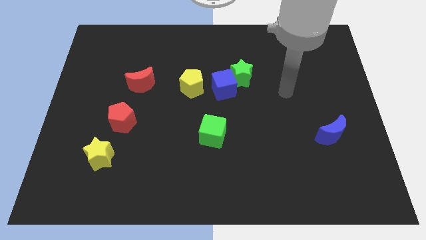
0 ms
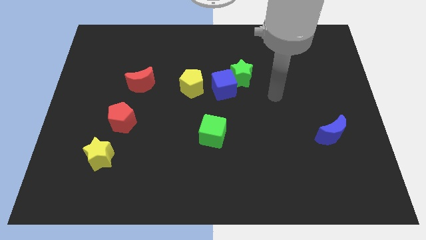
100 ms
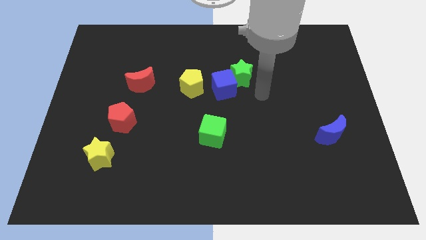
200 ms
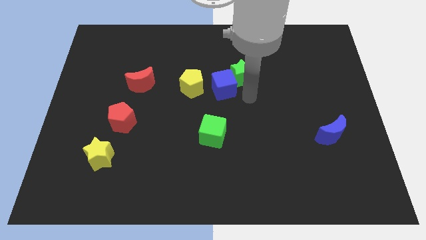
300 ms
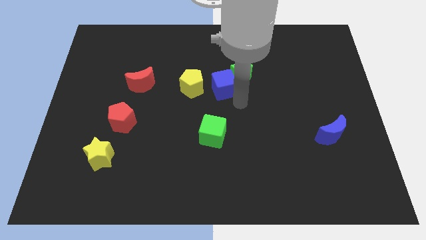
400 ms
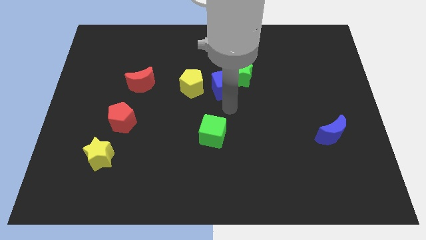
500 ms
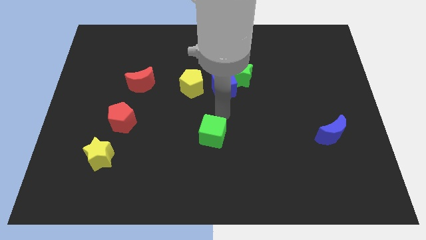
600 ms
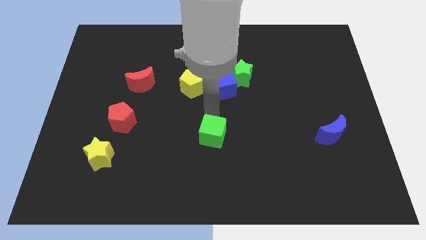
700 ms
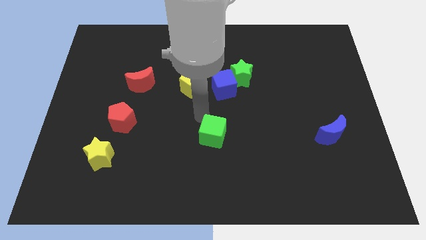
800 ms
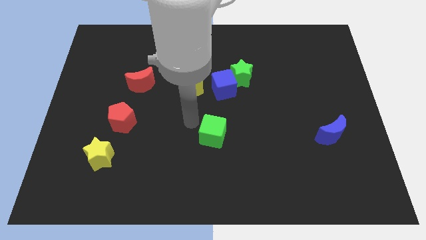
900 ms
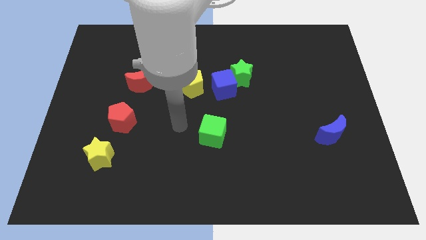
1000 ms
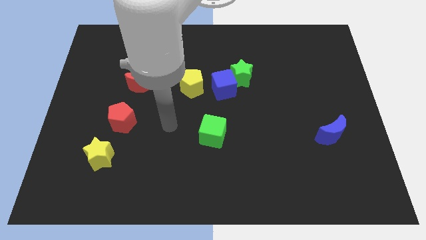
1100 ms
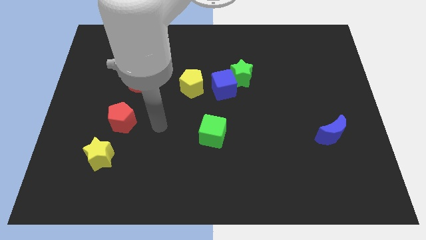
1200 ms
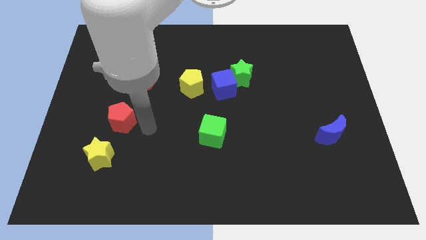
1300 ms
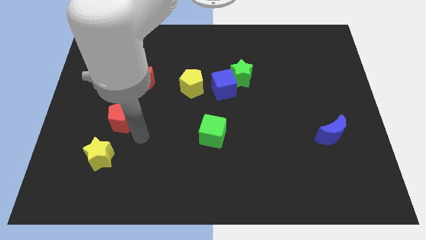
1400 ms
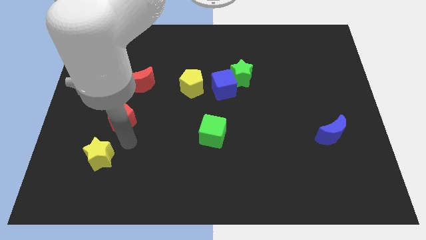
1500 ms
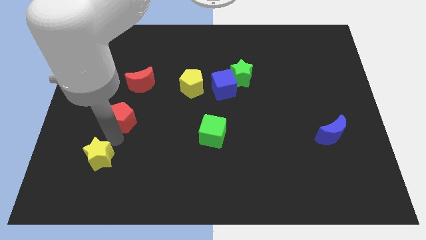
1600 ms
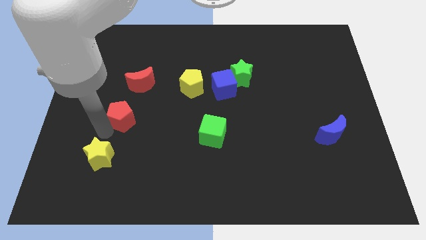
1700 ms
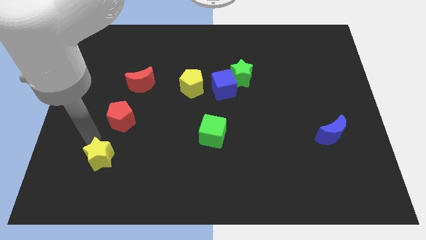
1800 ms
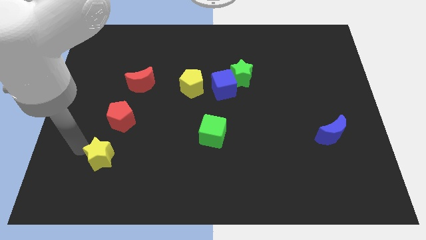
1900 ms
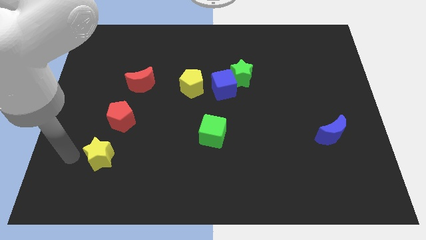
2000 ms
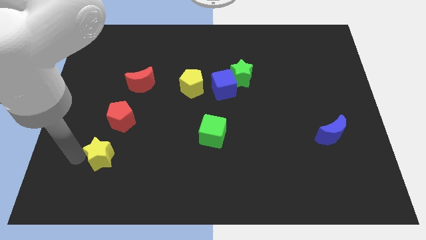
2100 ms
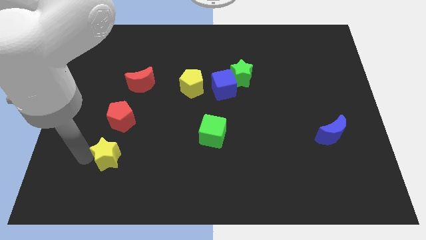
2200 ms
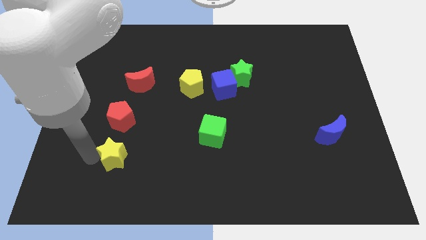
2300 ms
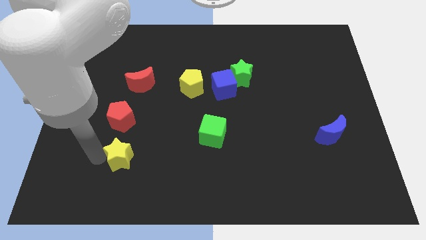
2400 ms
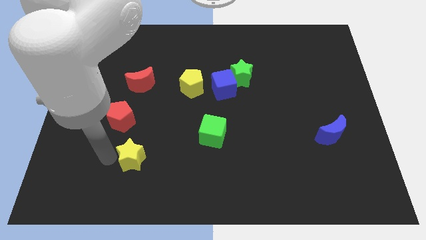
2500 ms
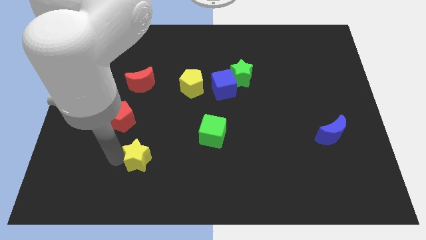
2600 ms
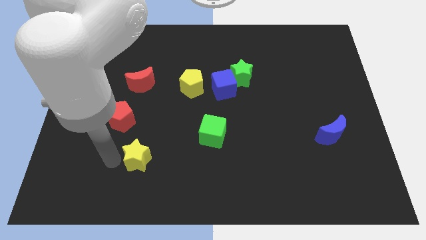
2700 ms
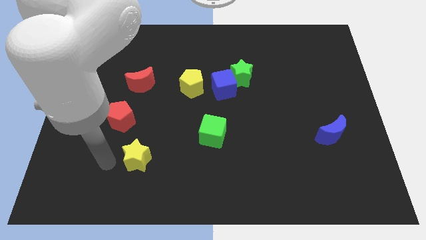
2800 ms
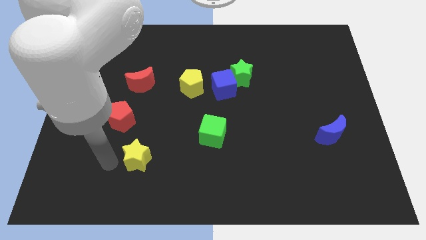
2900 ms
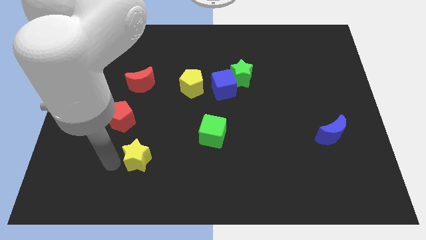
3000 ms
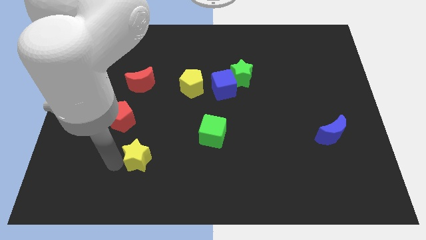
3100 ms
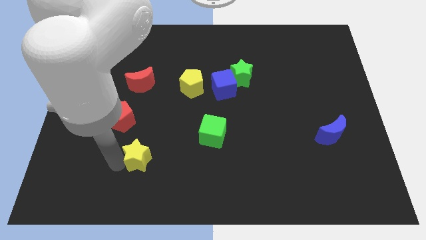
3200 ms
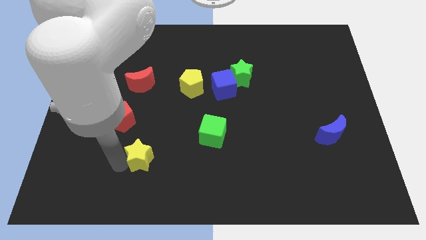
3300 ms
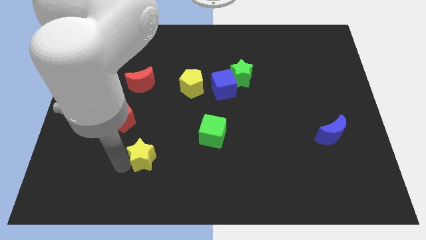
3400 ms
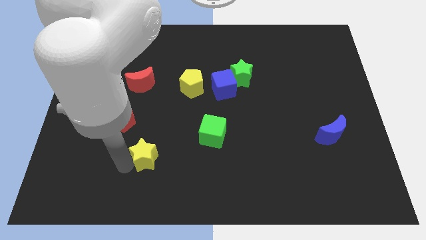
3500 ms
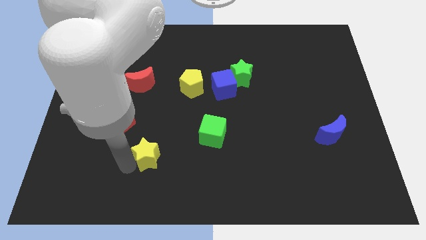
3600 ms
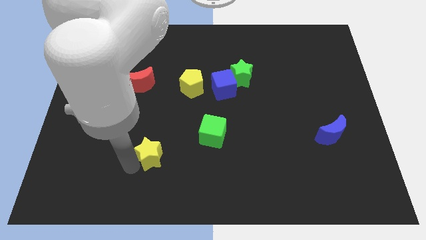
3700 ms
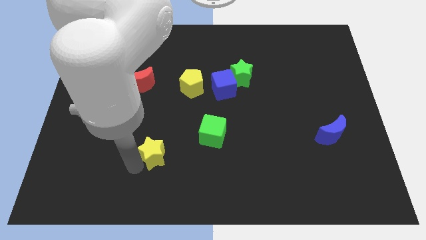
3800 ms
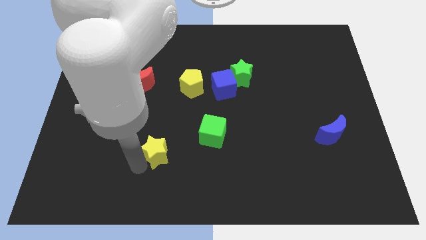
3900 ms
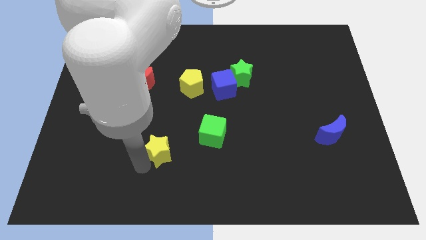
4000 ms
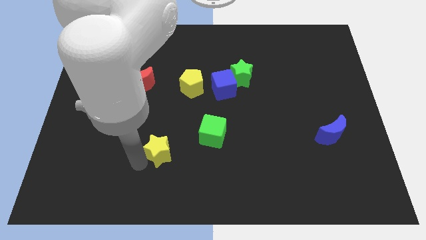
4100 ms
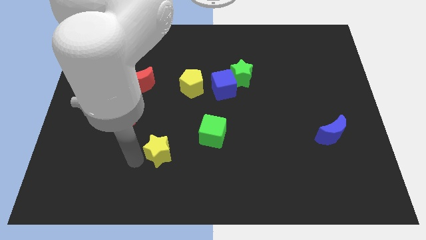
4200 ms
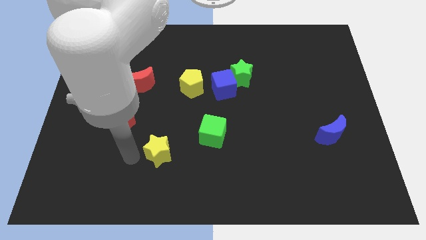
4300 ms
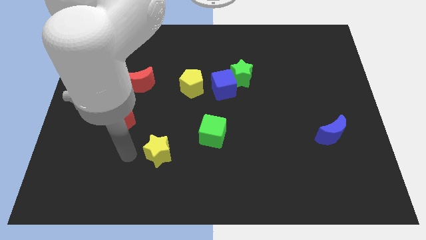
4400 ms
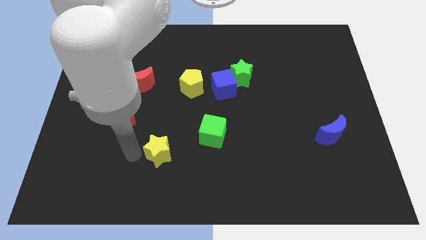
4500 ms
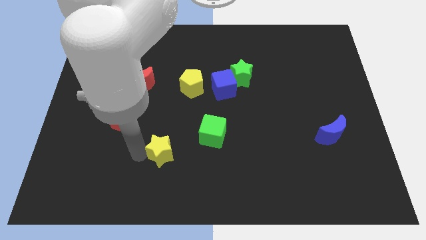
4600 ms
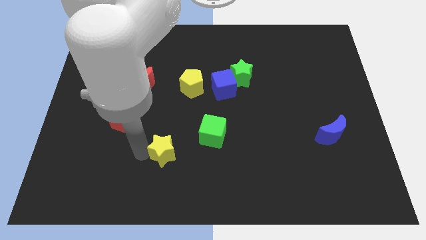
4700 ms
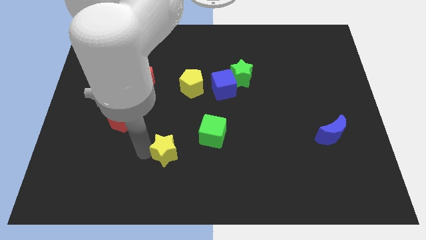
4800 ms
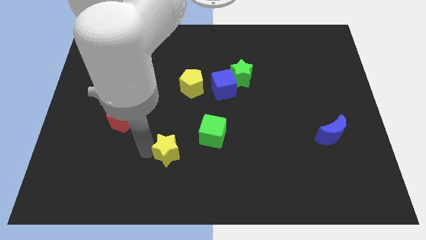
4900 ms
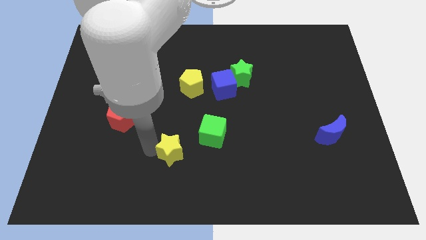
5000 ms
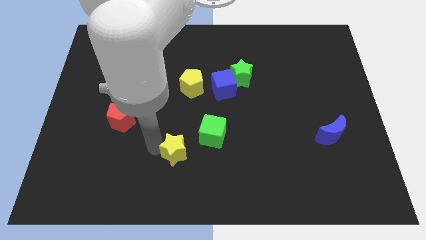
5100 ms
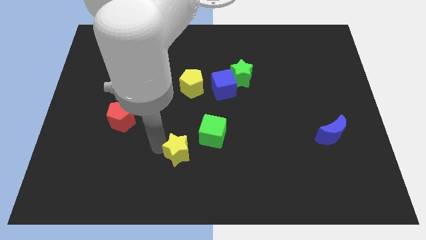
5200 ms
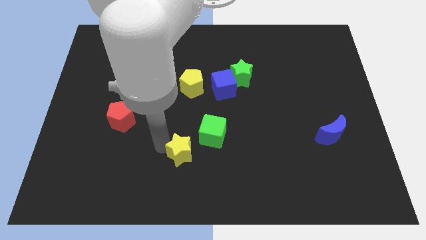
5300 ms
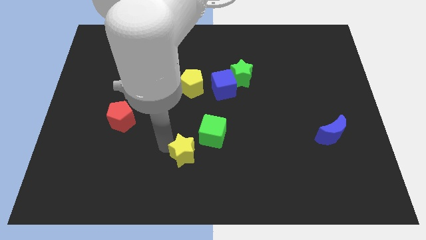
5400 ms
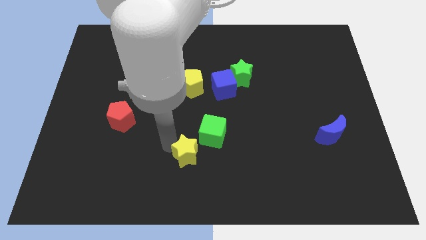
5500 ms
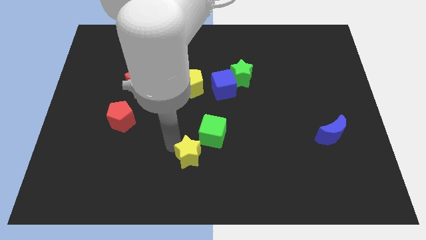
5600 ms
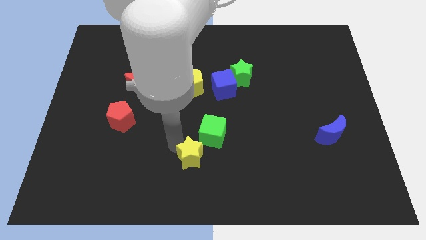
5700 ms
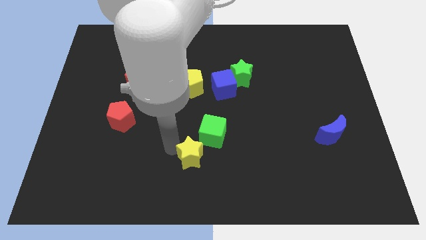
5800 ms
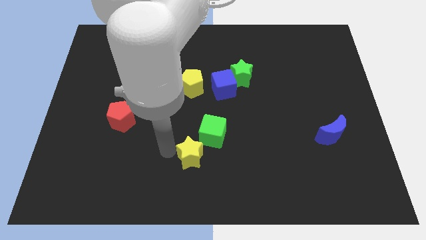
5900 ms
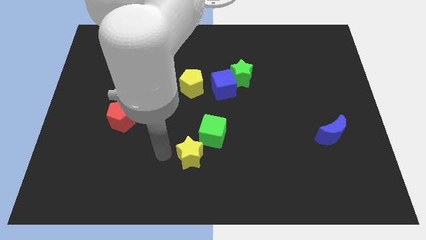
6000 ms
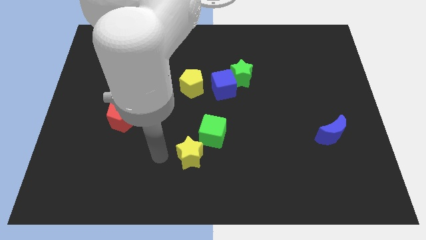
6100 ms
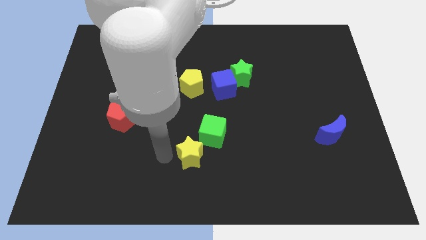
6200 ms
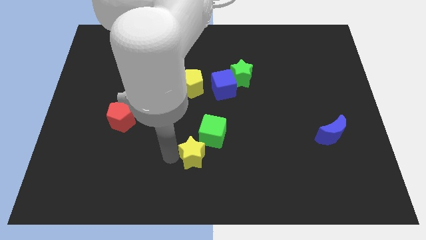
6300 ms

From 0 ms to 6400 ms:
push the yellow star right

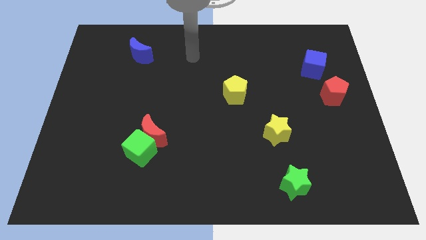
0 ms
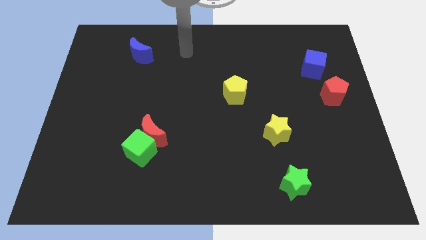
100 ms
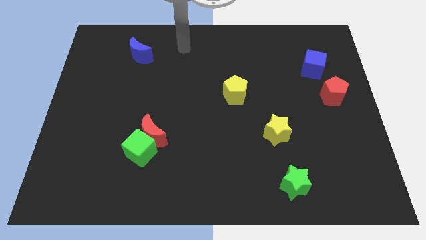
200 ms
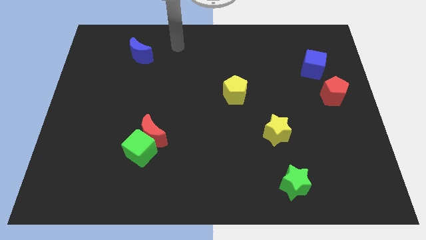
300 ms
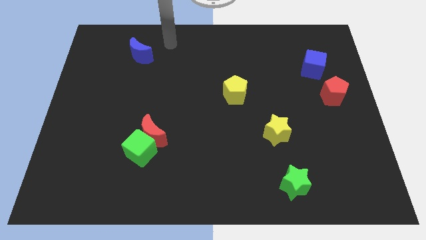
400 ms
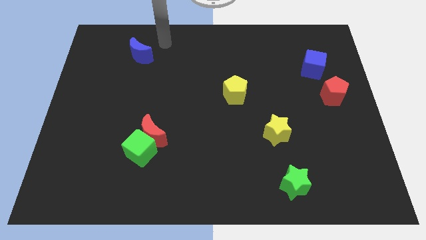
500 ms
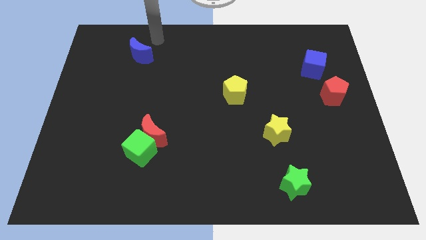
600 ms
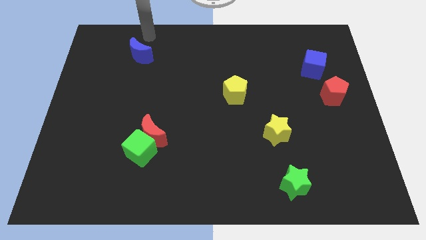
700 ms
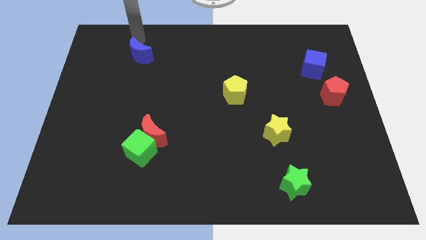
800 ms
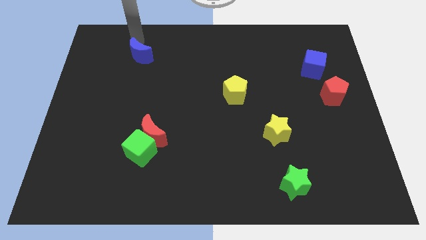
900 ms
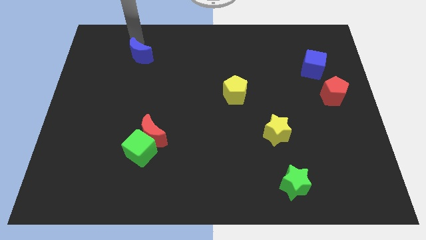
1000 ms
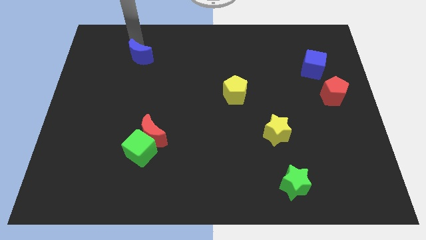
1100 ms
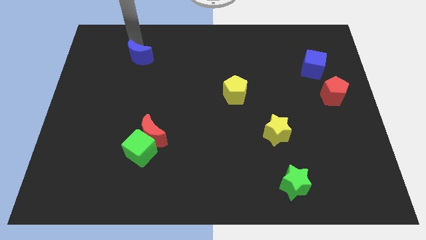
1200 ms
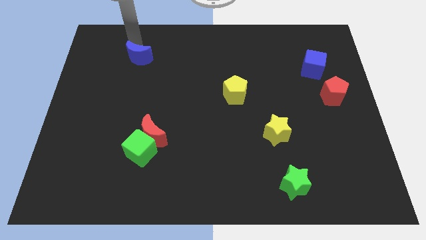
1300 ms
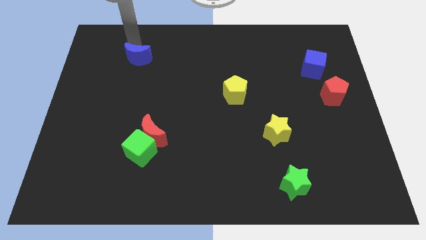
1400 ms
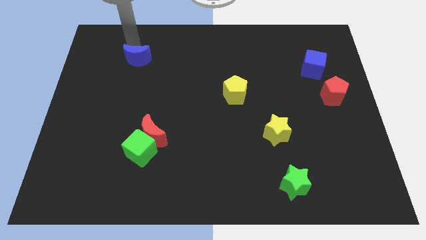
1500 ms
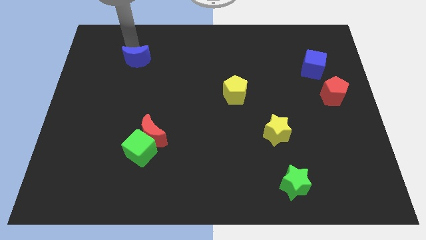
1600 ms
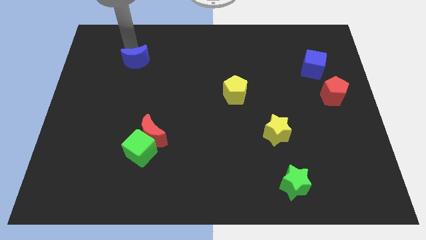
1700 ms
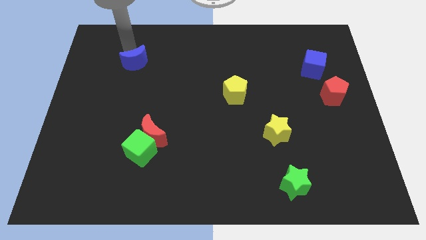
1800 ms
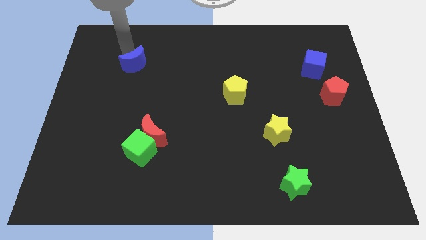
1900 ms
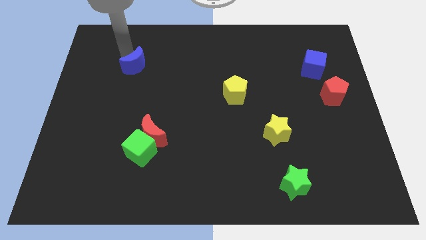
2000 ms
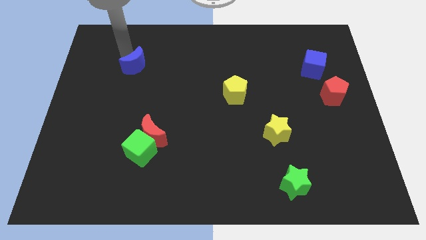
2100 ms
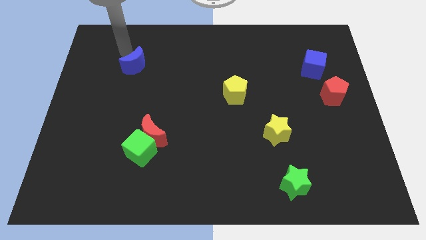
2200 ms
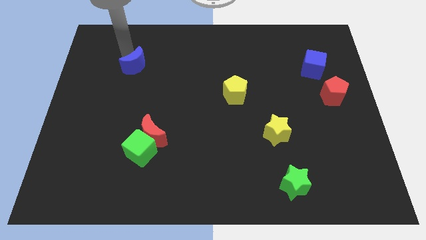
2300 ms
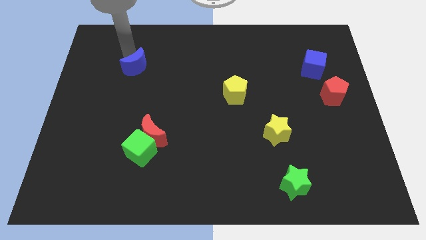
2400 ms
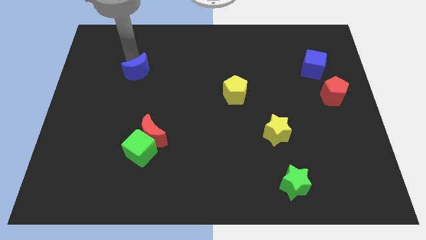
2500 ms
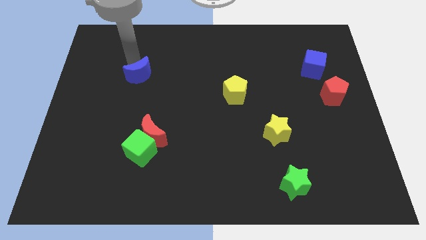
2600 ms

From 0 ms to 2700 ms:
move the blue moon somewhat down
